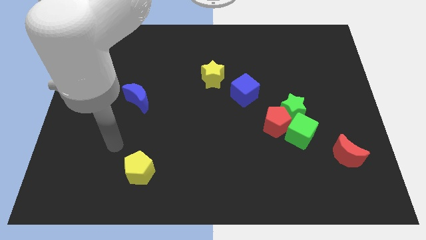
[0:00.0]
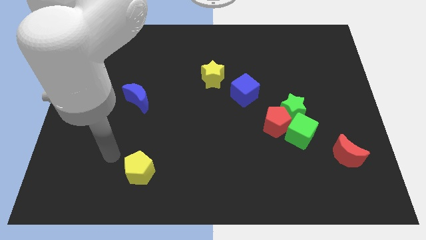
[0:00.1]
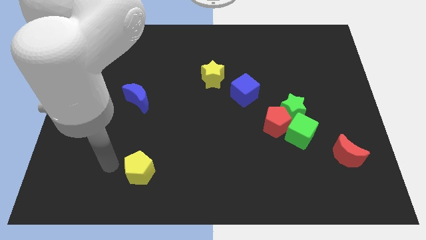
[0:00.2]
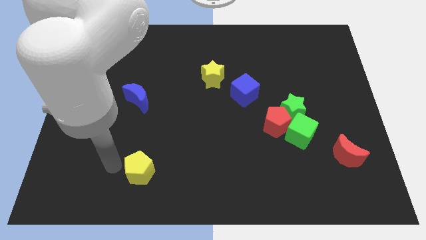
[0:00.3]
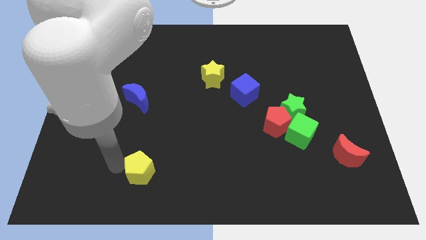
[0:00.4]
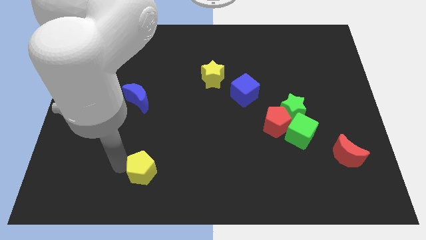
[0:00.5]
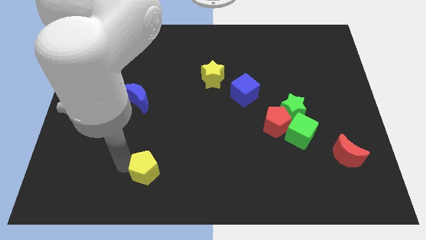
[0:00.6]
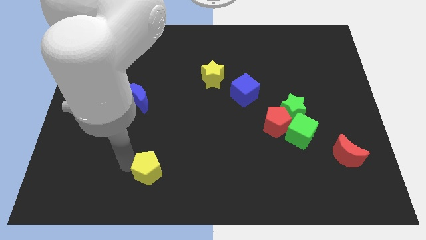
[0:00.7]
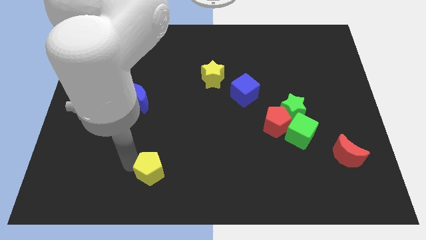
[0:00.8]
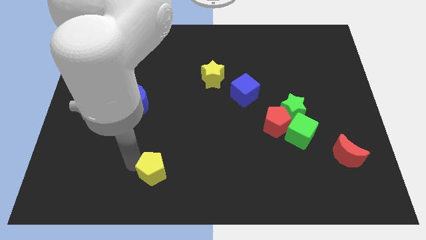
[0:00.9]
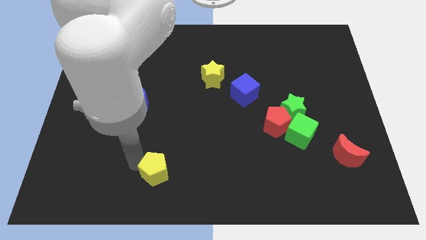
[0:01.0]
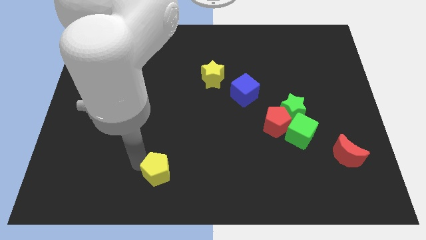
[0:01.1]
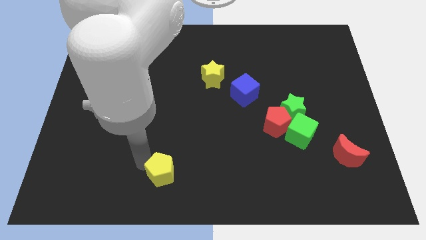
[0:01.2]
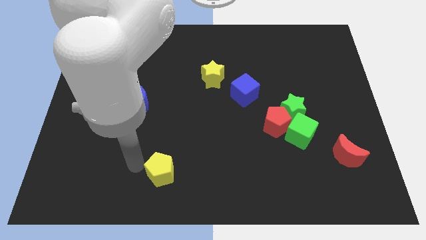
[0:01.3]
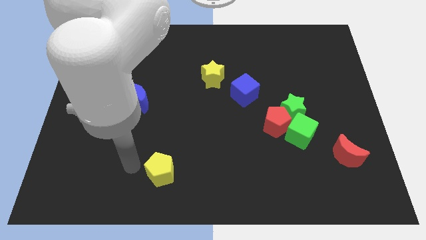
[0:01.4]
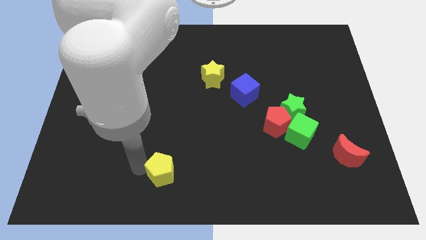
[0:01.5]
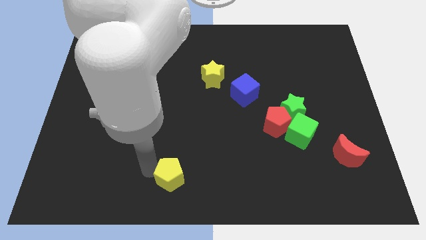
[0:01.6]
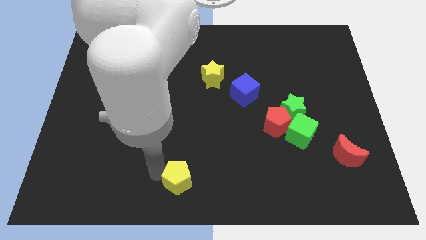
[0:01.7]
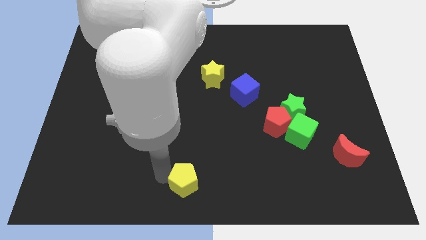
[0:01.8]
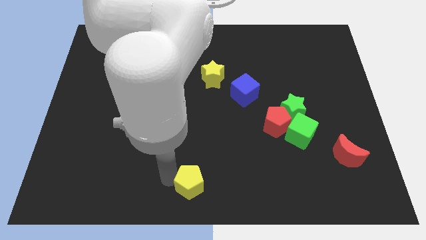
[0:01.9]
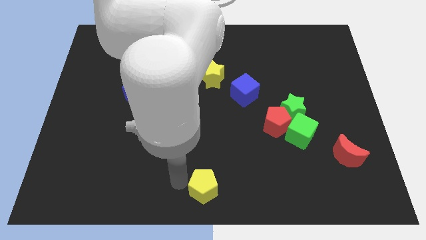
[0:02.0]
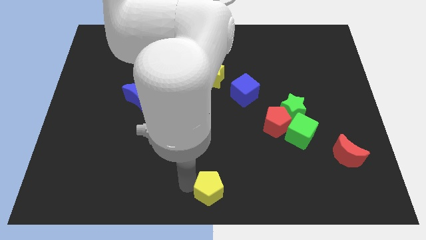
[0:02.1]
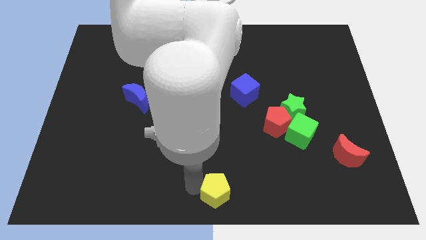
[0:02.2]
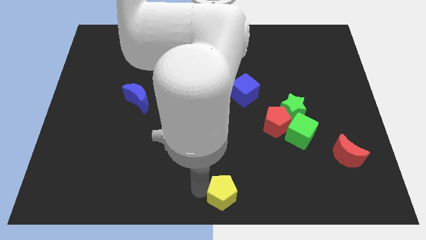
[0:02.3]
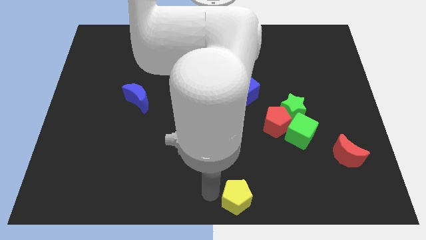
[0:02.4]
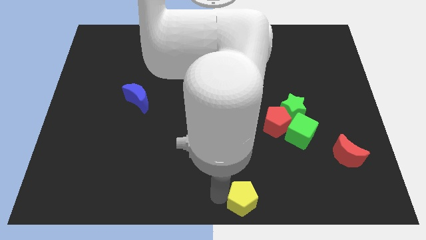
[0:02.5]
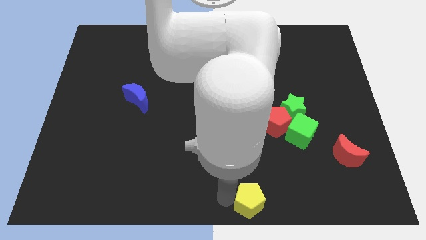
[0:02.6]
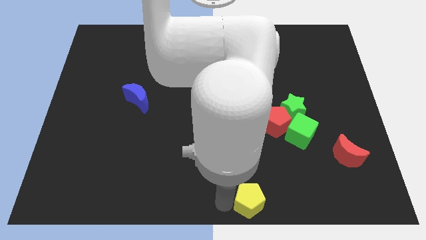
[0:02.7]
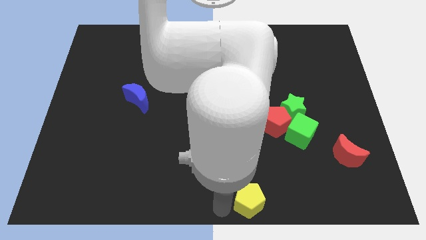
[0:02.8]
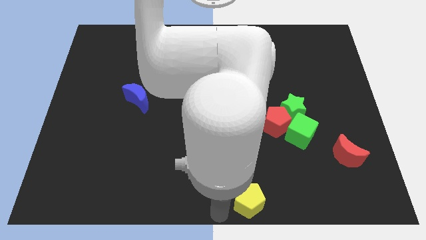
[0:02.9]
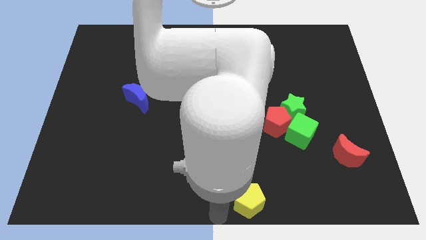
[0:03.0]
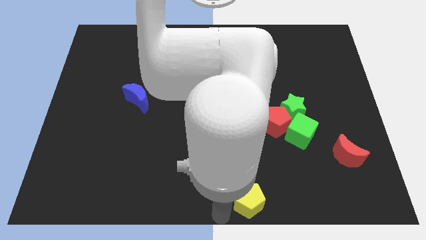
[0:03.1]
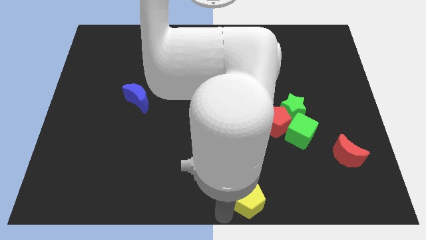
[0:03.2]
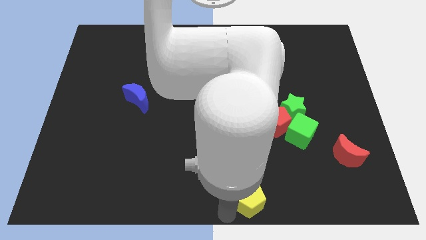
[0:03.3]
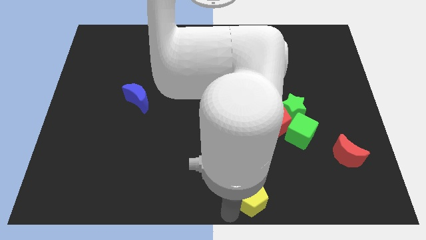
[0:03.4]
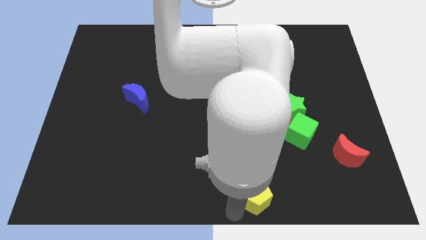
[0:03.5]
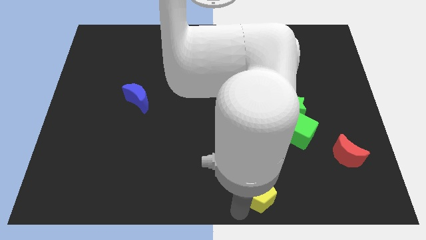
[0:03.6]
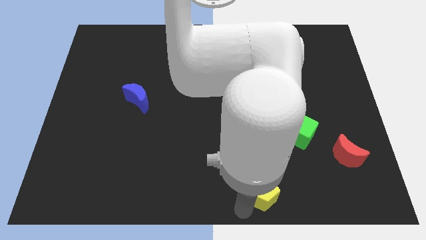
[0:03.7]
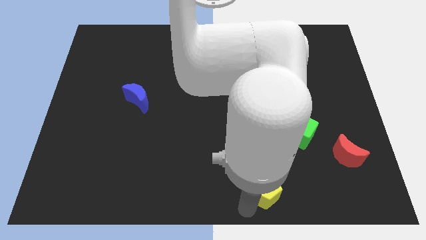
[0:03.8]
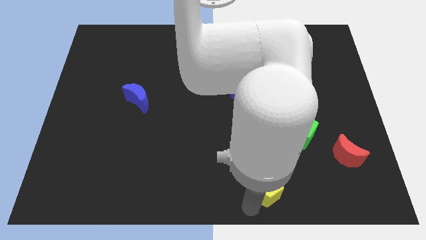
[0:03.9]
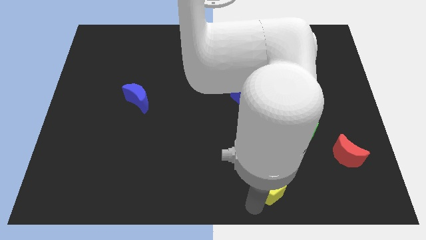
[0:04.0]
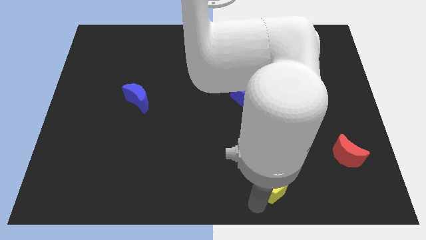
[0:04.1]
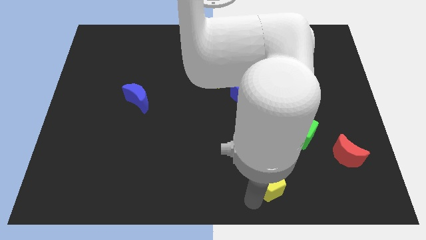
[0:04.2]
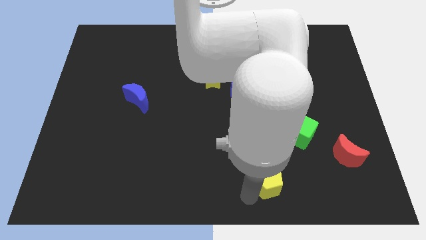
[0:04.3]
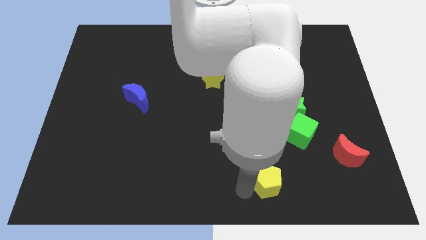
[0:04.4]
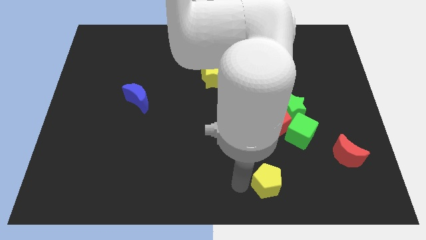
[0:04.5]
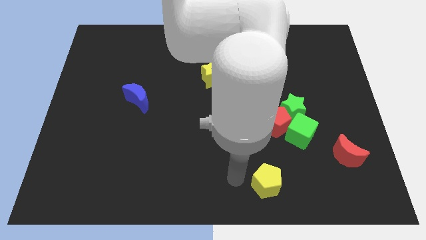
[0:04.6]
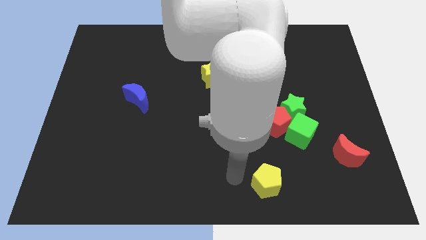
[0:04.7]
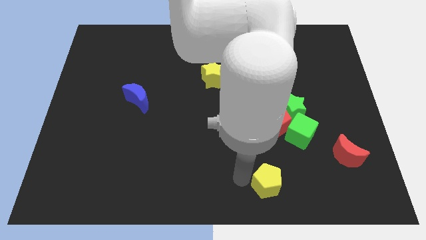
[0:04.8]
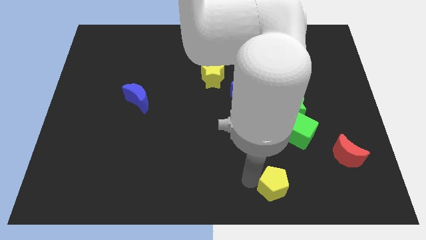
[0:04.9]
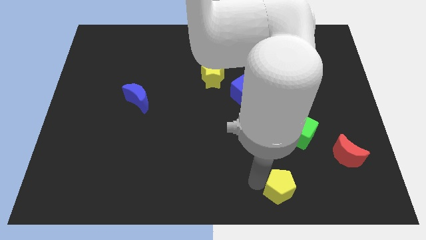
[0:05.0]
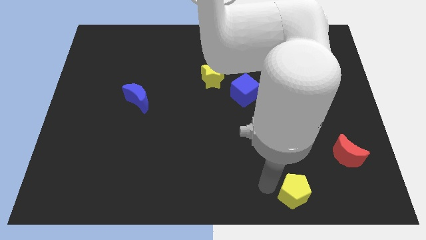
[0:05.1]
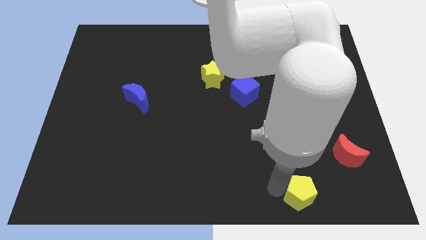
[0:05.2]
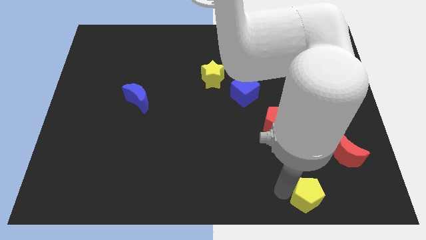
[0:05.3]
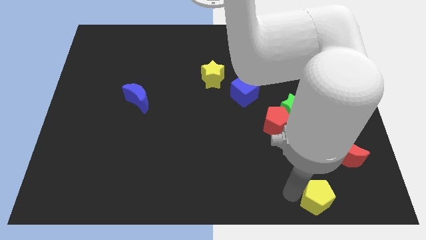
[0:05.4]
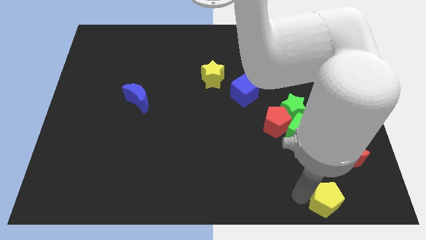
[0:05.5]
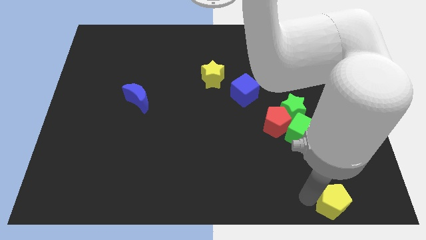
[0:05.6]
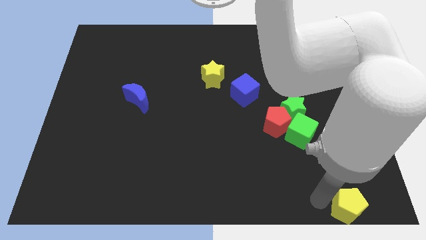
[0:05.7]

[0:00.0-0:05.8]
move the yellow pentagon to the lower right corner

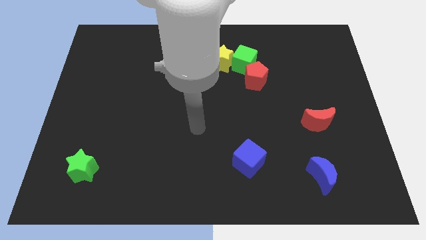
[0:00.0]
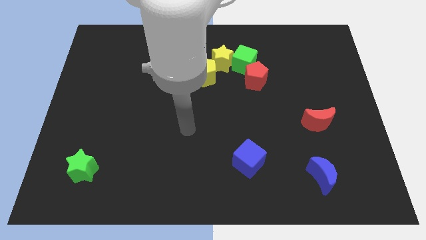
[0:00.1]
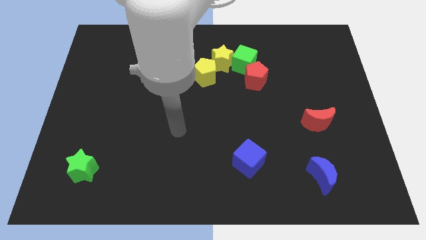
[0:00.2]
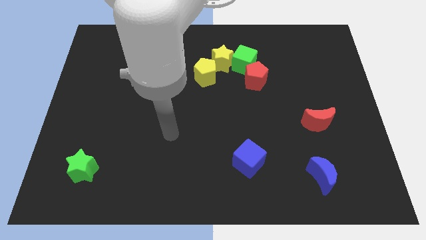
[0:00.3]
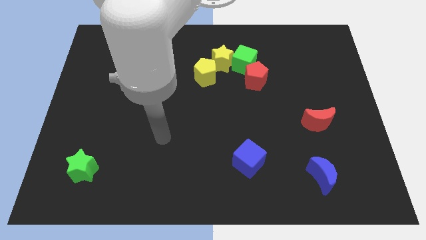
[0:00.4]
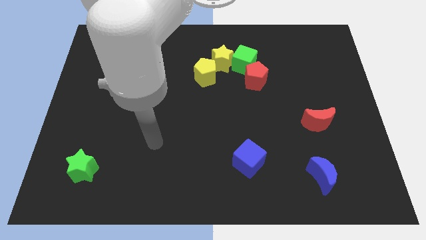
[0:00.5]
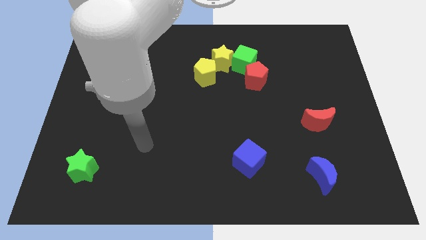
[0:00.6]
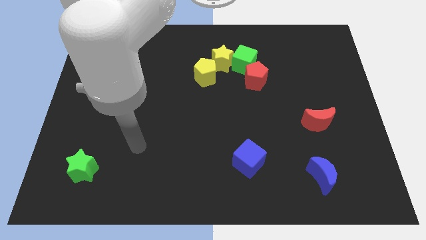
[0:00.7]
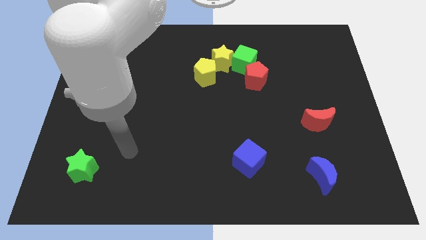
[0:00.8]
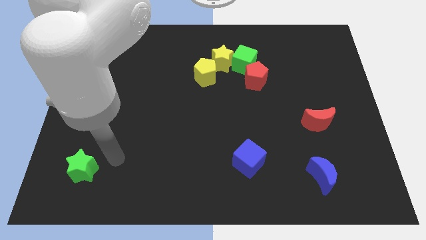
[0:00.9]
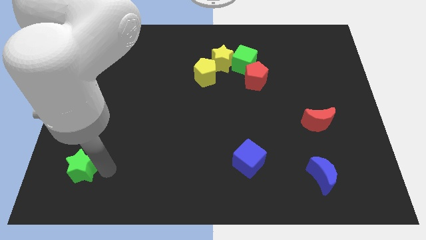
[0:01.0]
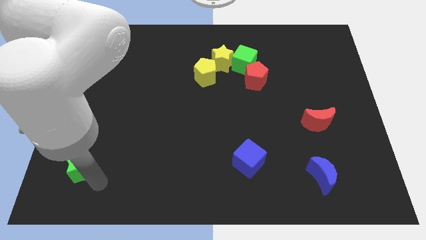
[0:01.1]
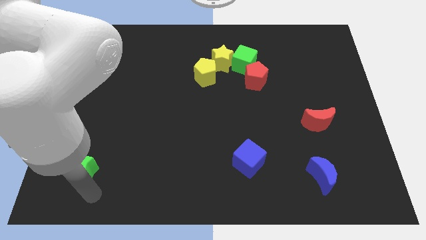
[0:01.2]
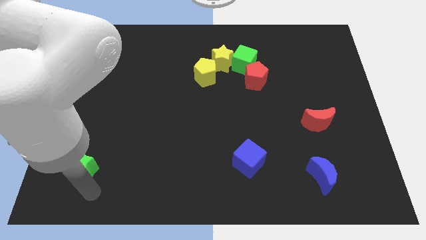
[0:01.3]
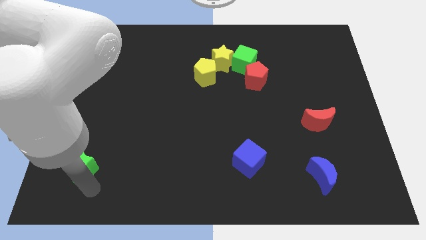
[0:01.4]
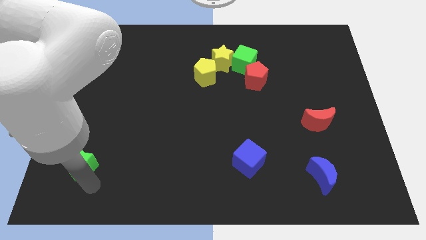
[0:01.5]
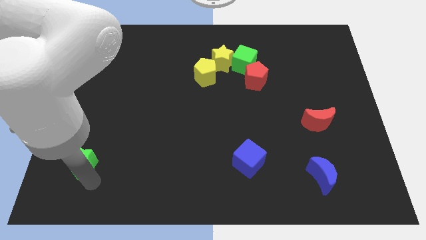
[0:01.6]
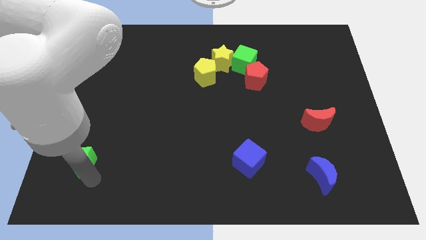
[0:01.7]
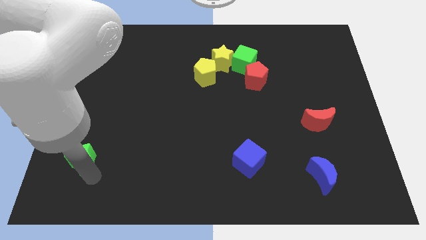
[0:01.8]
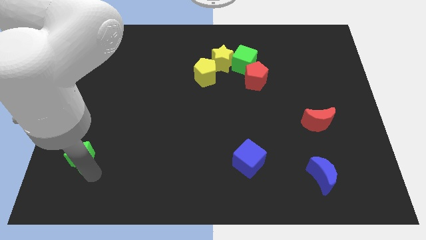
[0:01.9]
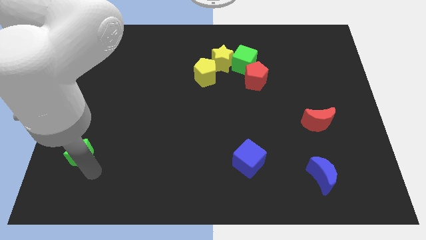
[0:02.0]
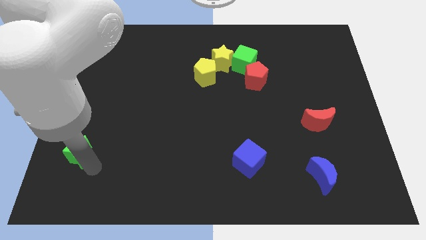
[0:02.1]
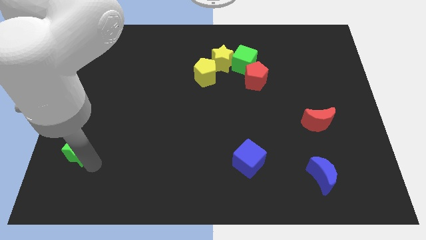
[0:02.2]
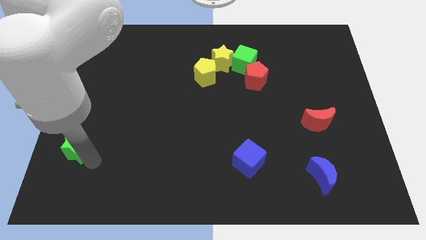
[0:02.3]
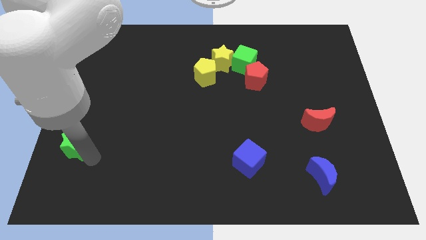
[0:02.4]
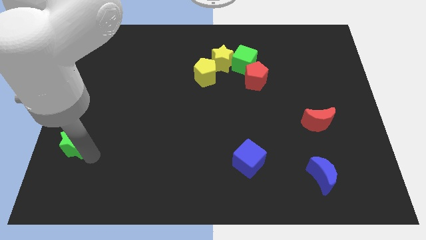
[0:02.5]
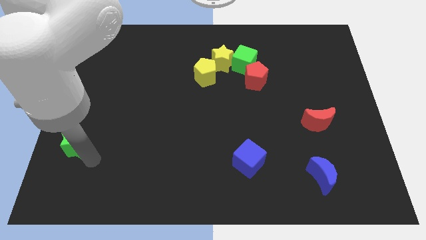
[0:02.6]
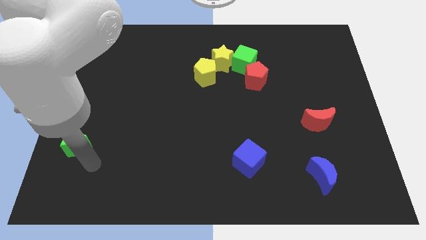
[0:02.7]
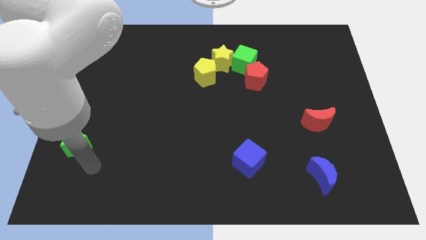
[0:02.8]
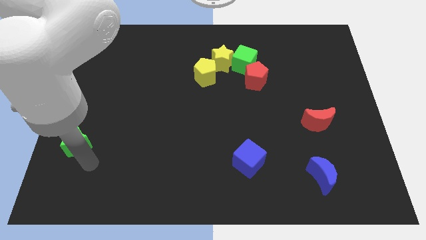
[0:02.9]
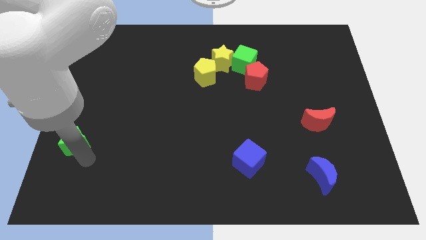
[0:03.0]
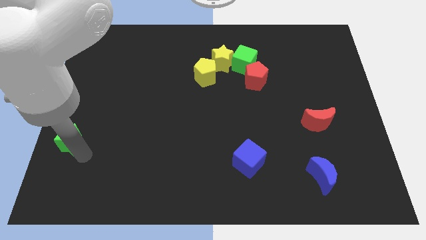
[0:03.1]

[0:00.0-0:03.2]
move the green star to the left side of the board
